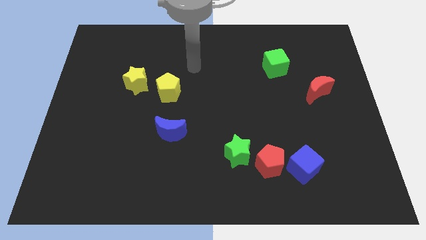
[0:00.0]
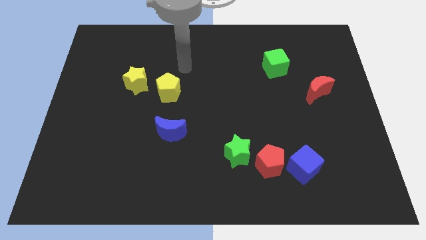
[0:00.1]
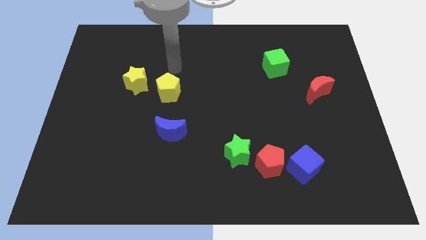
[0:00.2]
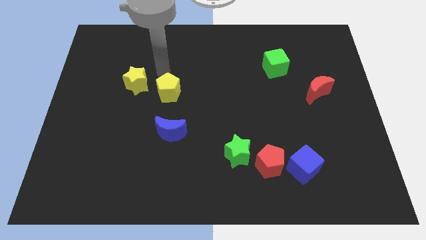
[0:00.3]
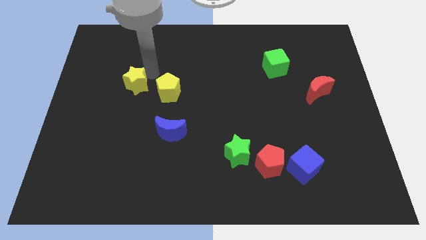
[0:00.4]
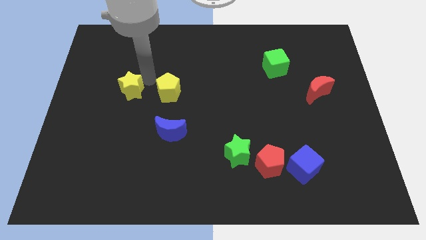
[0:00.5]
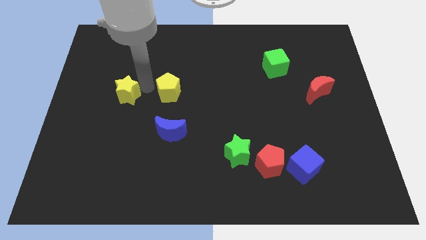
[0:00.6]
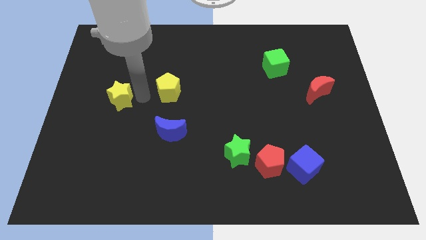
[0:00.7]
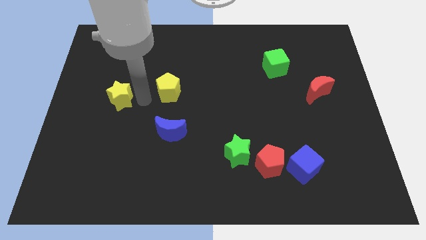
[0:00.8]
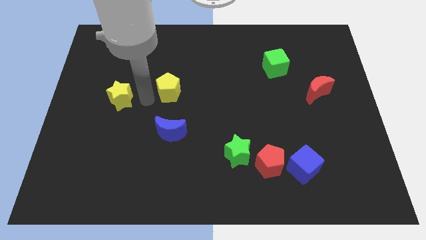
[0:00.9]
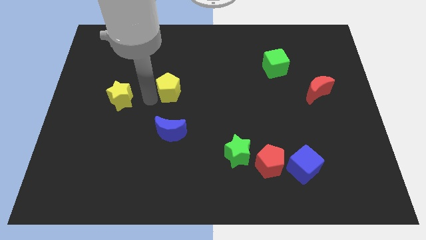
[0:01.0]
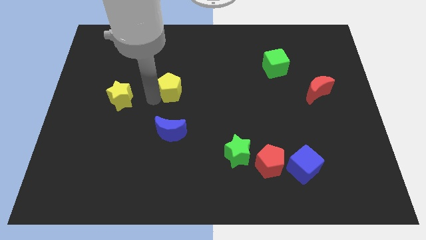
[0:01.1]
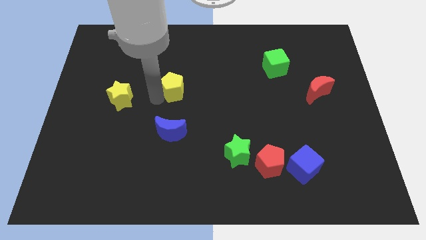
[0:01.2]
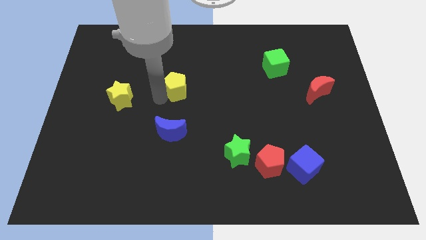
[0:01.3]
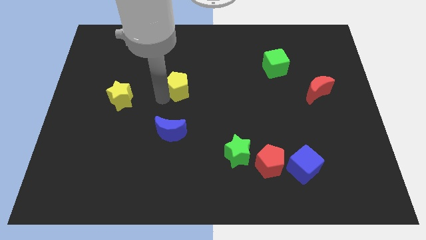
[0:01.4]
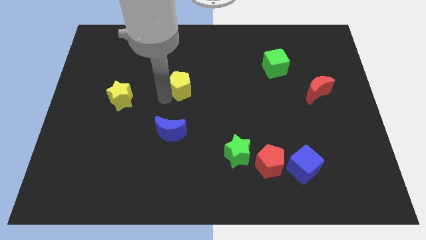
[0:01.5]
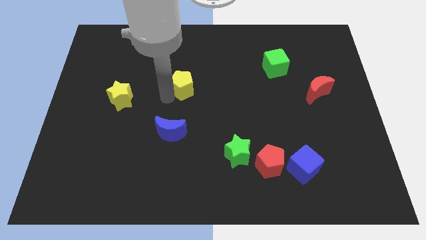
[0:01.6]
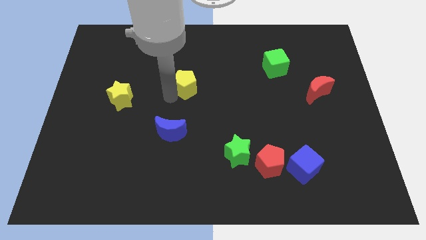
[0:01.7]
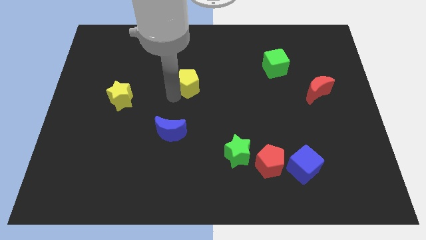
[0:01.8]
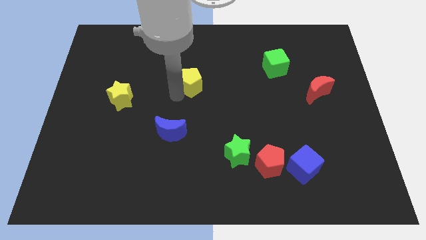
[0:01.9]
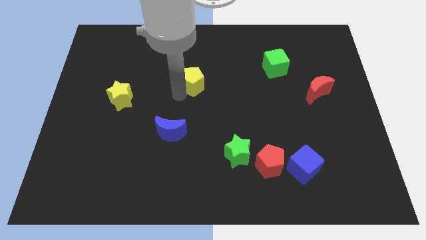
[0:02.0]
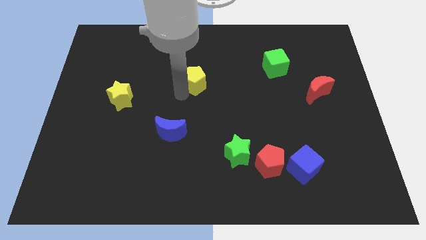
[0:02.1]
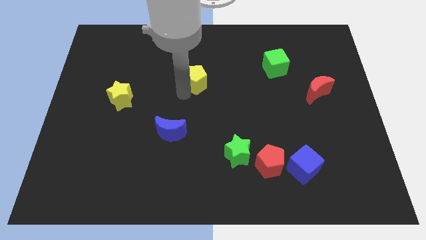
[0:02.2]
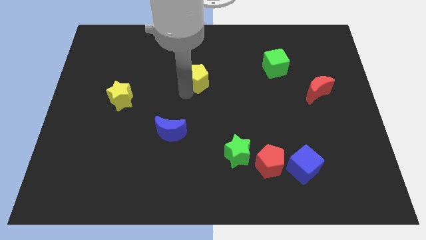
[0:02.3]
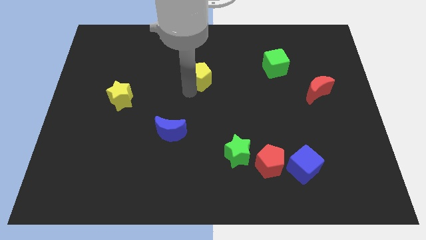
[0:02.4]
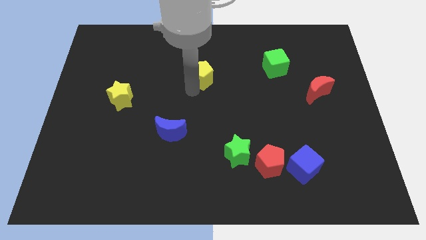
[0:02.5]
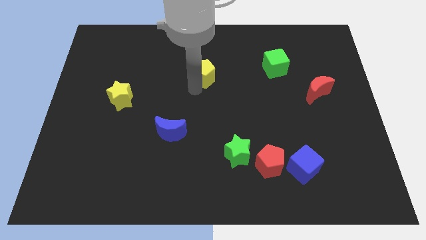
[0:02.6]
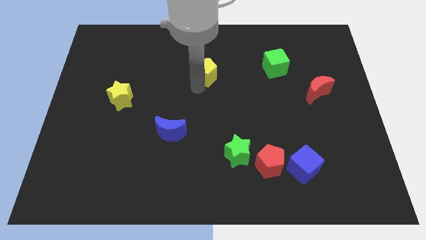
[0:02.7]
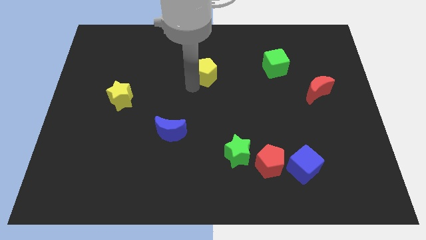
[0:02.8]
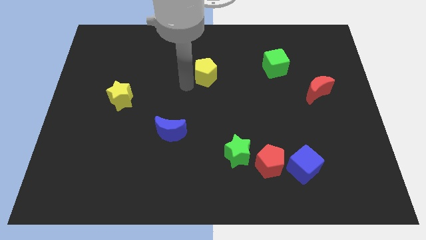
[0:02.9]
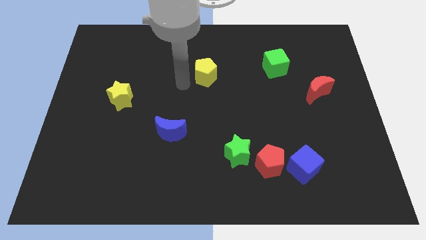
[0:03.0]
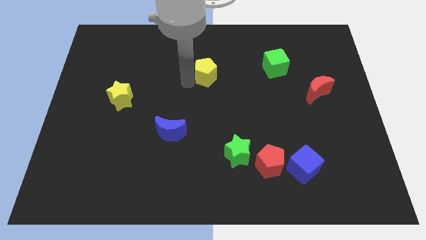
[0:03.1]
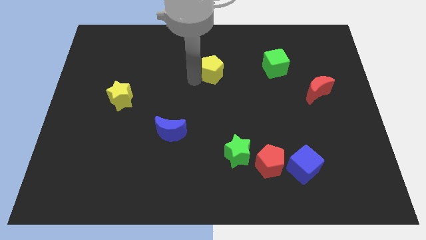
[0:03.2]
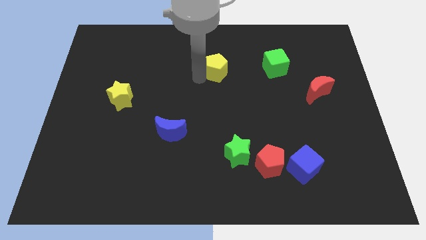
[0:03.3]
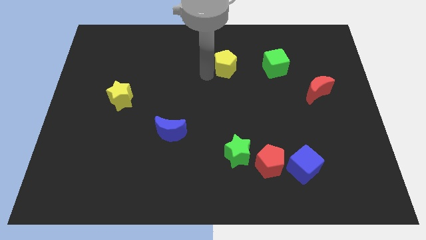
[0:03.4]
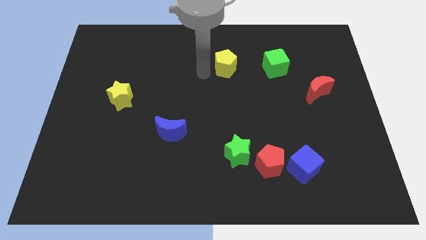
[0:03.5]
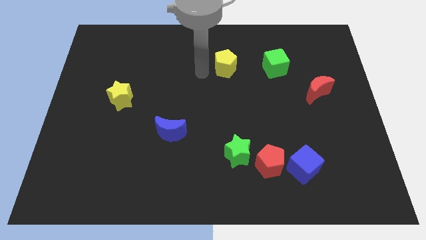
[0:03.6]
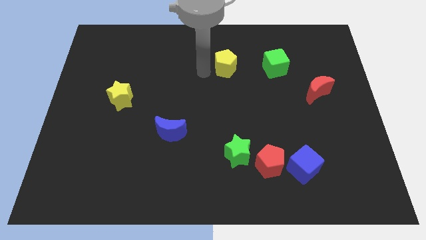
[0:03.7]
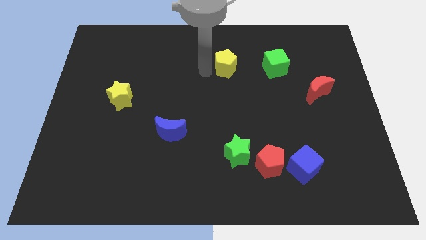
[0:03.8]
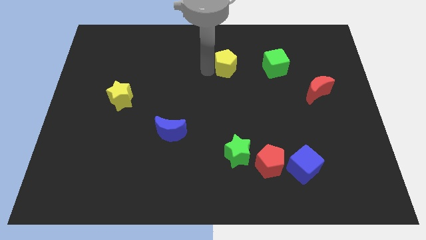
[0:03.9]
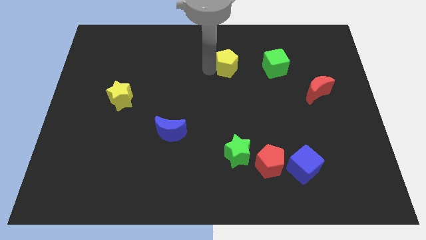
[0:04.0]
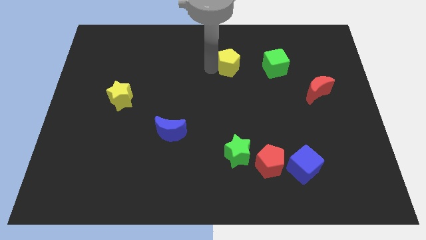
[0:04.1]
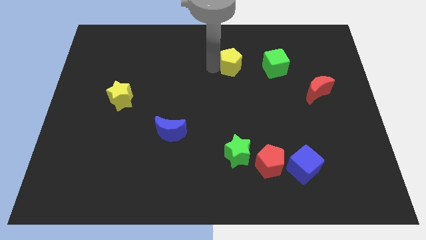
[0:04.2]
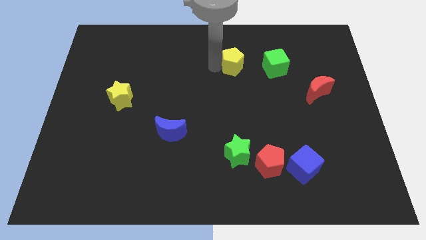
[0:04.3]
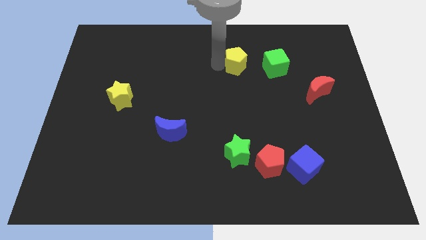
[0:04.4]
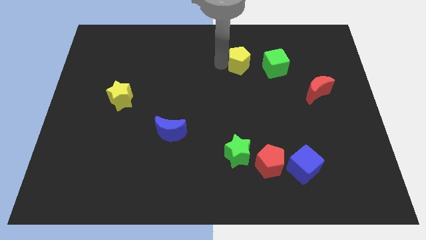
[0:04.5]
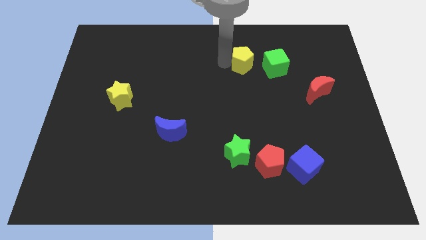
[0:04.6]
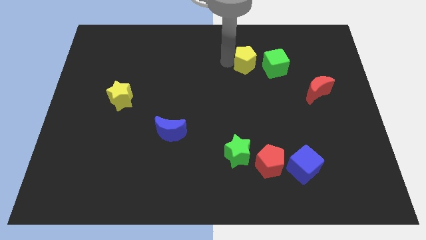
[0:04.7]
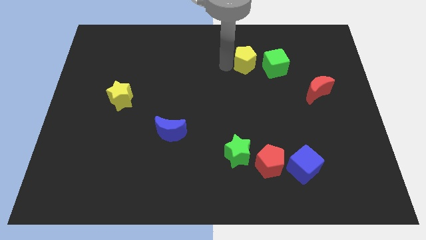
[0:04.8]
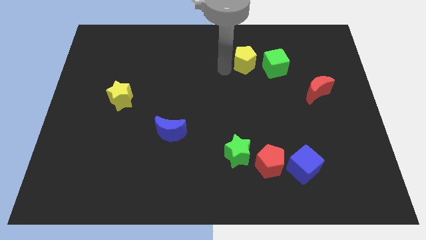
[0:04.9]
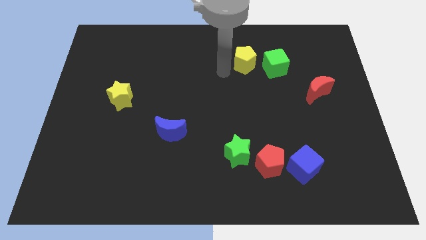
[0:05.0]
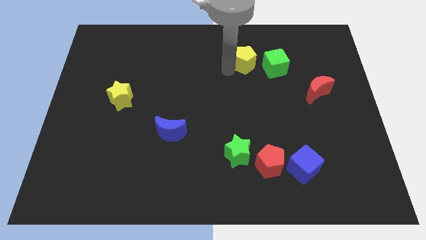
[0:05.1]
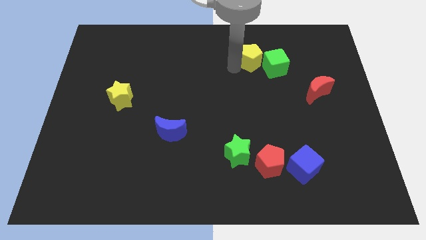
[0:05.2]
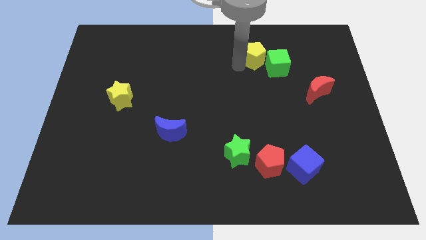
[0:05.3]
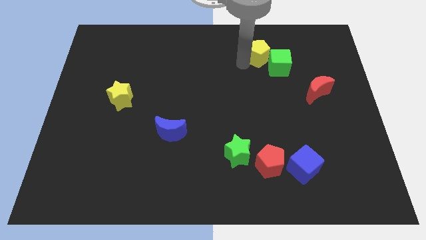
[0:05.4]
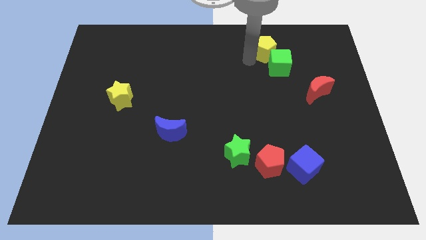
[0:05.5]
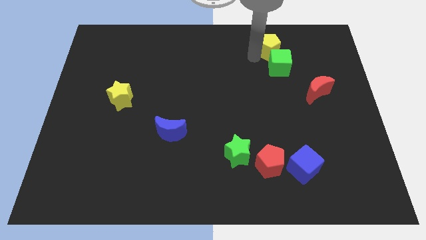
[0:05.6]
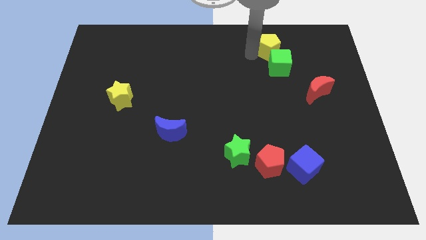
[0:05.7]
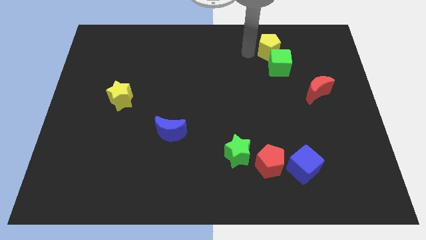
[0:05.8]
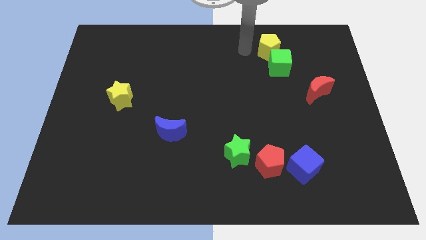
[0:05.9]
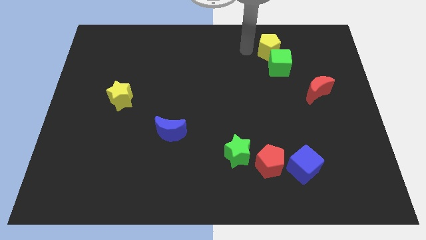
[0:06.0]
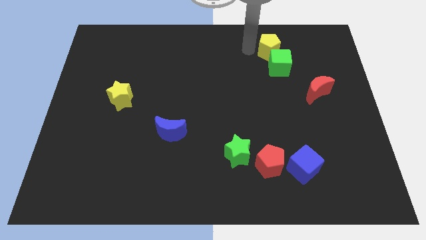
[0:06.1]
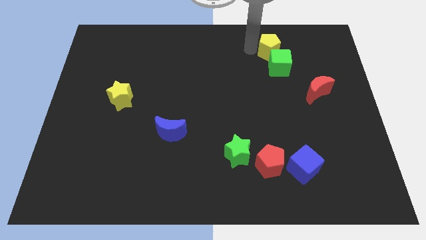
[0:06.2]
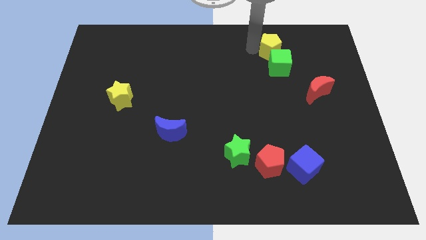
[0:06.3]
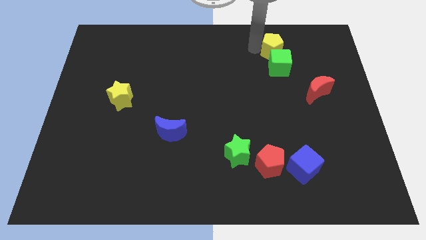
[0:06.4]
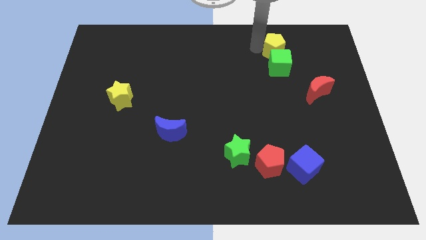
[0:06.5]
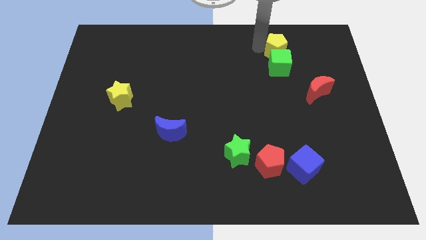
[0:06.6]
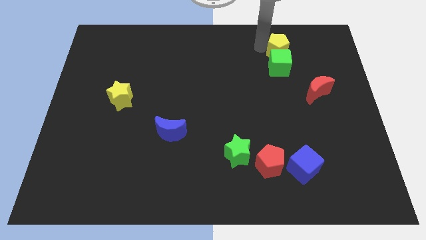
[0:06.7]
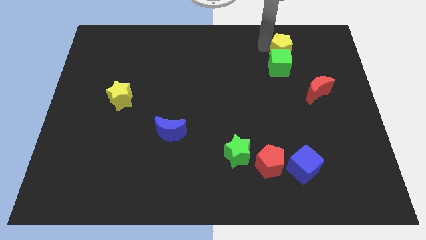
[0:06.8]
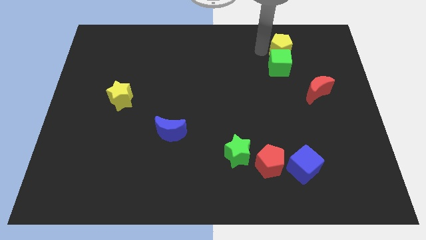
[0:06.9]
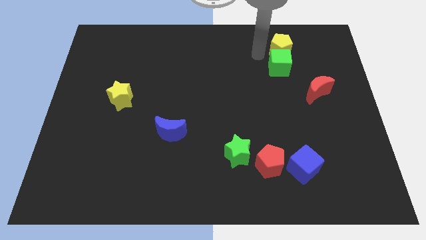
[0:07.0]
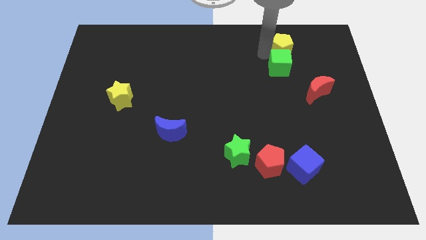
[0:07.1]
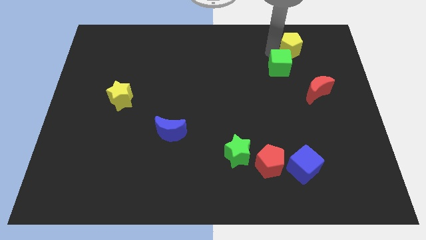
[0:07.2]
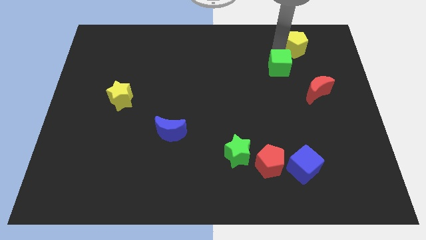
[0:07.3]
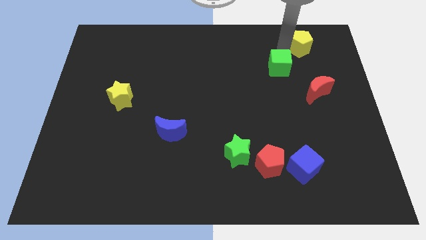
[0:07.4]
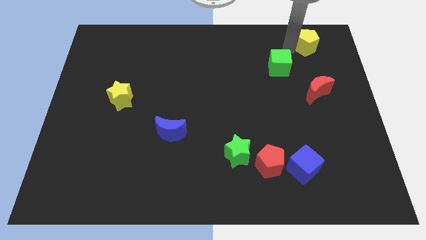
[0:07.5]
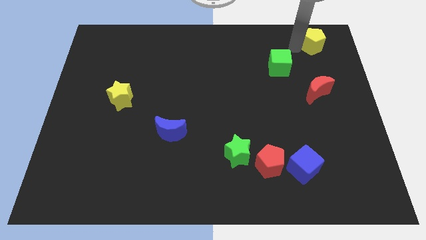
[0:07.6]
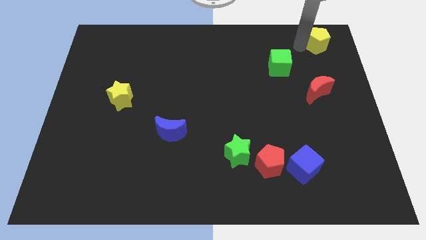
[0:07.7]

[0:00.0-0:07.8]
push the yellow pentagon to the upper right corner
